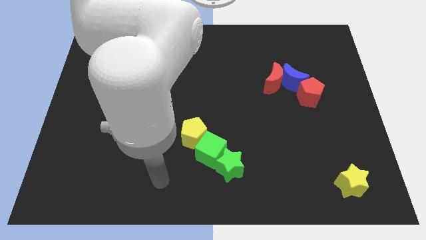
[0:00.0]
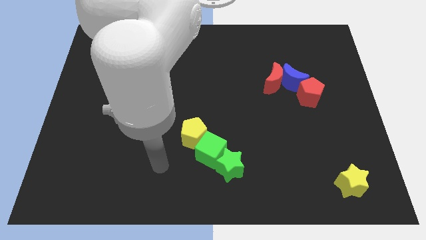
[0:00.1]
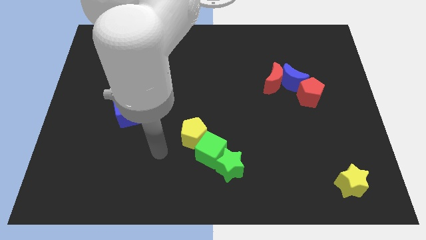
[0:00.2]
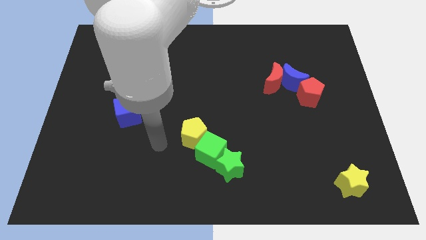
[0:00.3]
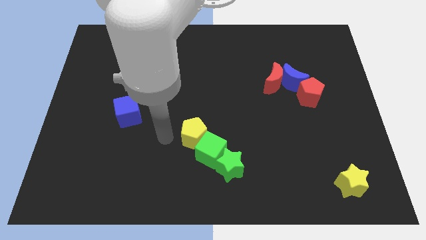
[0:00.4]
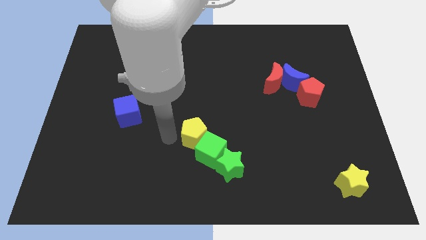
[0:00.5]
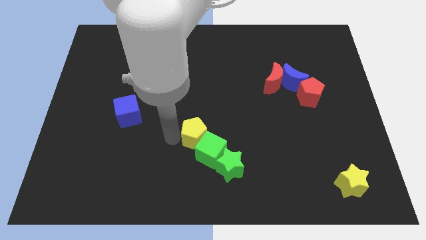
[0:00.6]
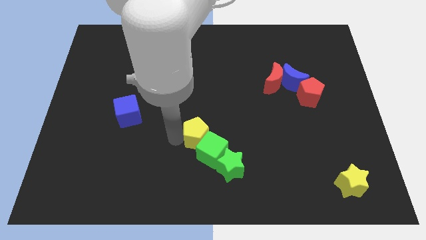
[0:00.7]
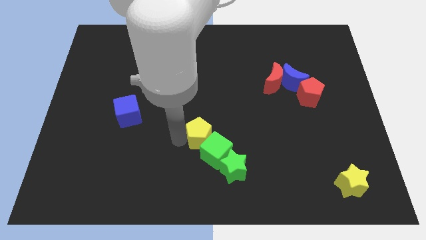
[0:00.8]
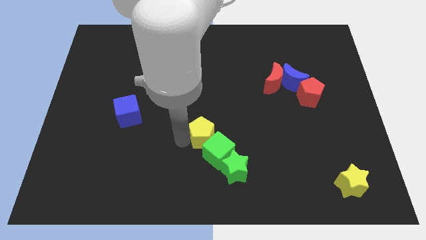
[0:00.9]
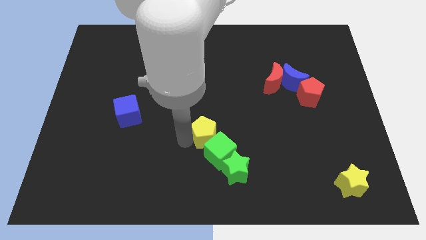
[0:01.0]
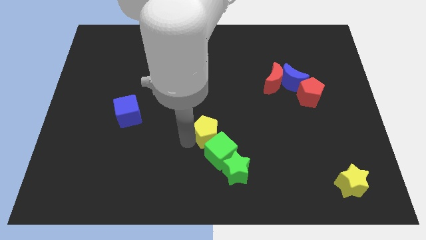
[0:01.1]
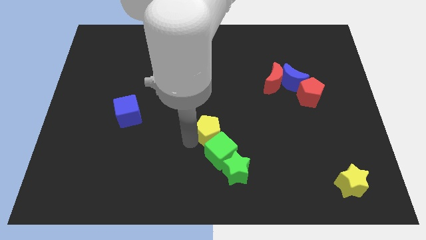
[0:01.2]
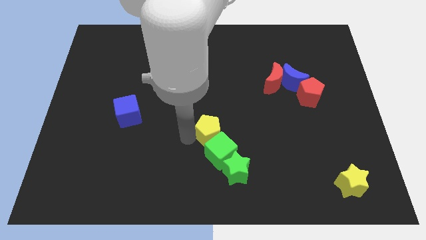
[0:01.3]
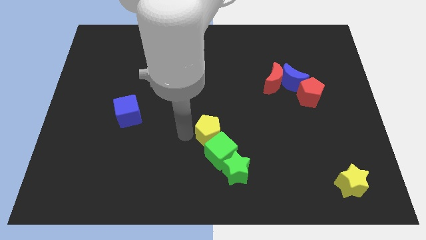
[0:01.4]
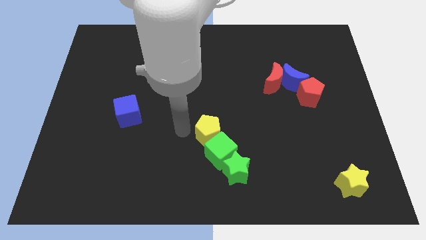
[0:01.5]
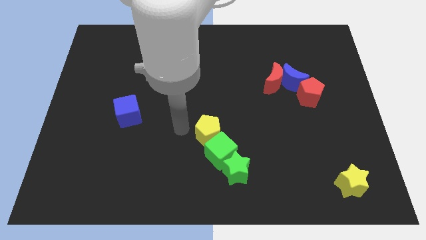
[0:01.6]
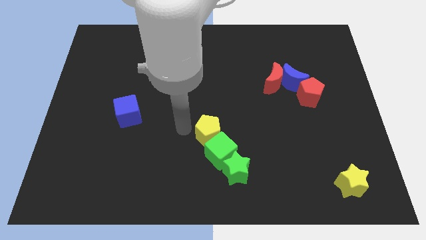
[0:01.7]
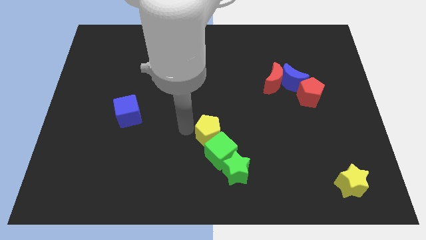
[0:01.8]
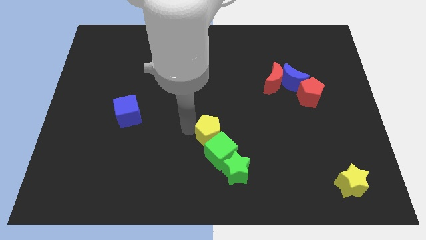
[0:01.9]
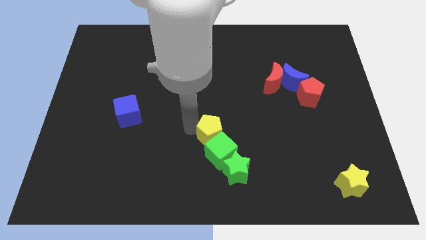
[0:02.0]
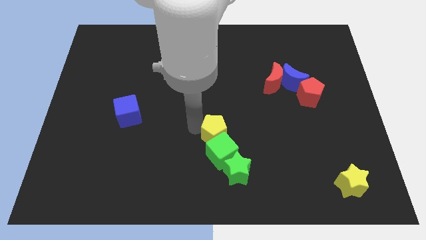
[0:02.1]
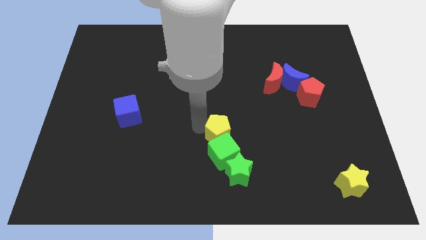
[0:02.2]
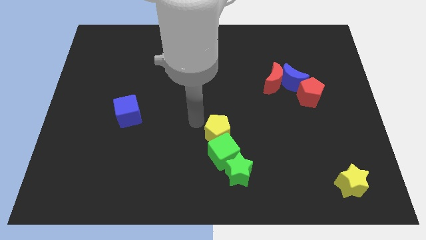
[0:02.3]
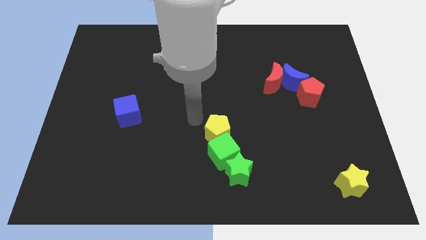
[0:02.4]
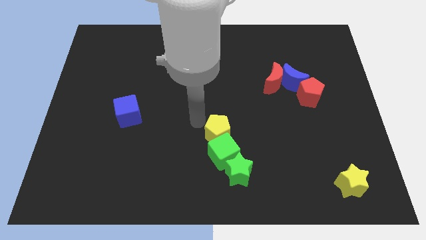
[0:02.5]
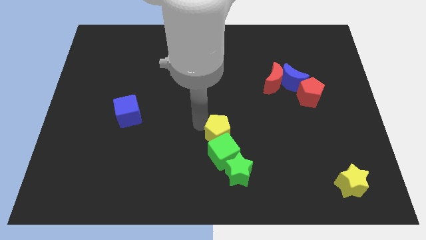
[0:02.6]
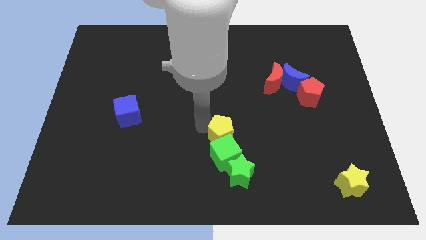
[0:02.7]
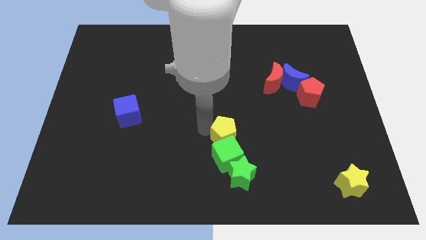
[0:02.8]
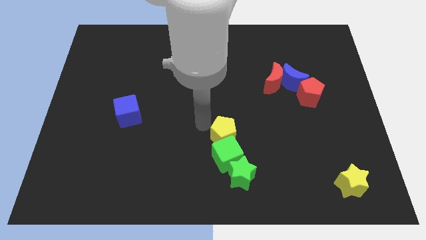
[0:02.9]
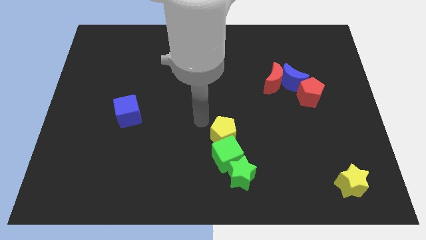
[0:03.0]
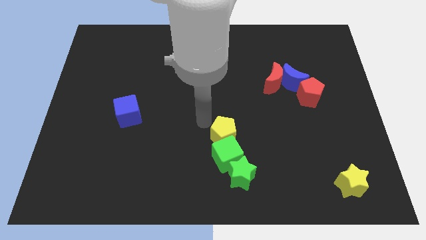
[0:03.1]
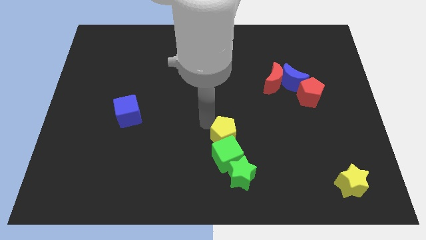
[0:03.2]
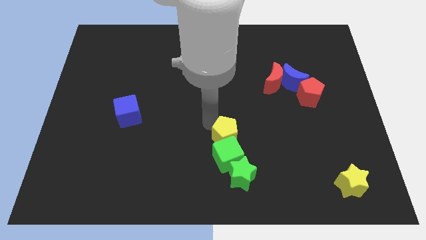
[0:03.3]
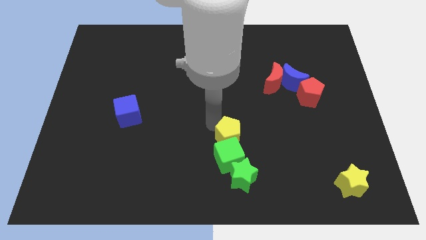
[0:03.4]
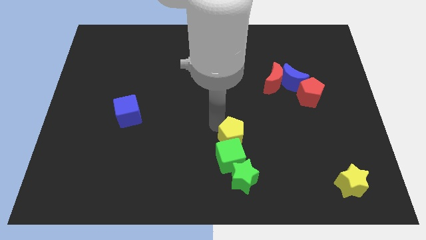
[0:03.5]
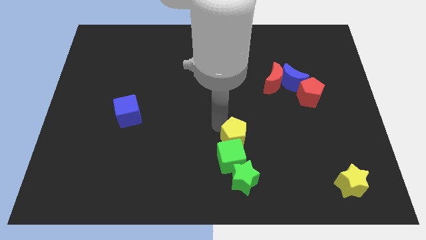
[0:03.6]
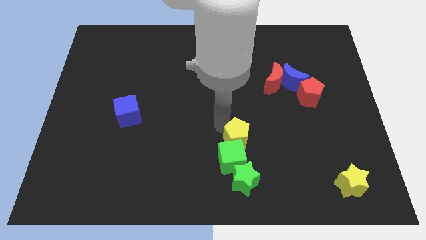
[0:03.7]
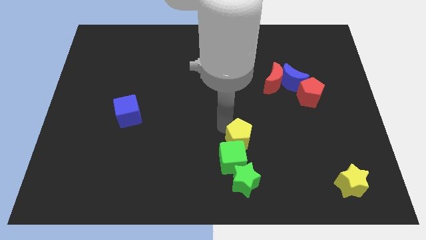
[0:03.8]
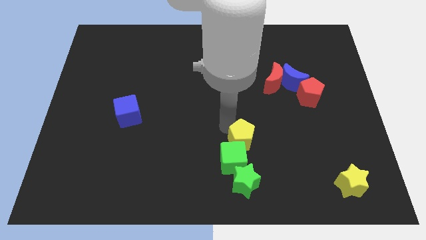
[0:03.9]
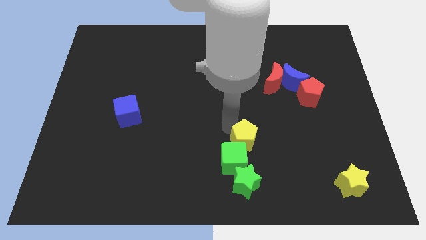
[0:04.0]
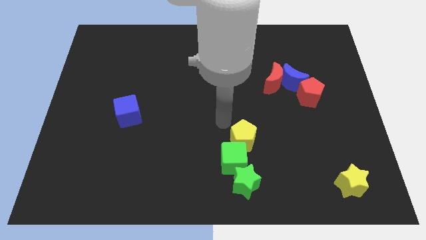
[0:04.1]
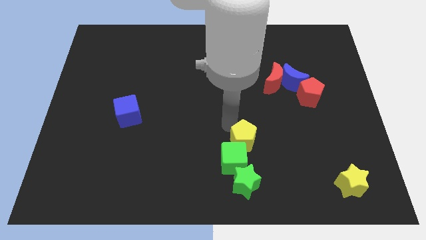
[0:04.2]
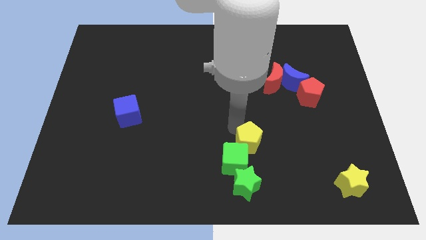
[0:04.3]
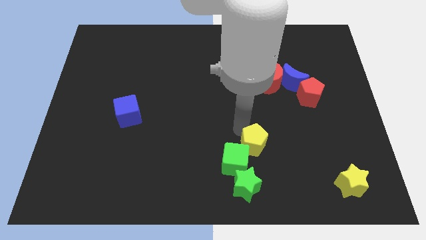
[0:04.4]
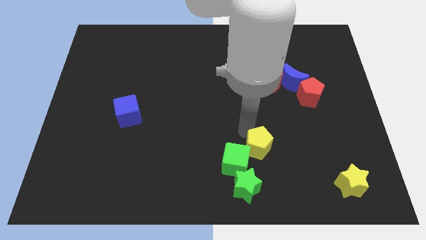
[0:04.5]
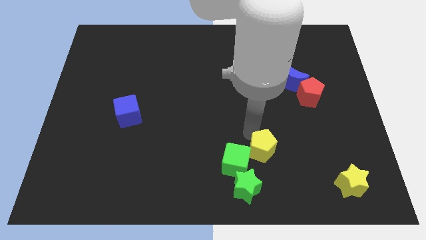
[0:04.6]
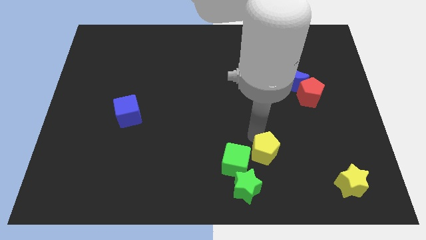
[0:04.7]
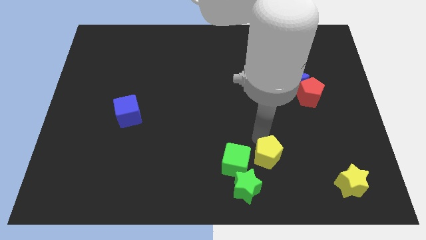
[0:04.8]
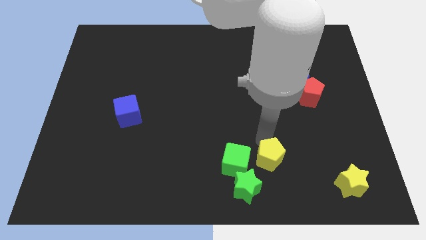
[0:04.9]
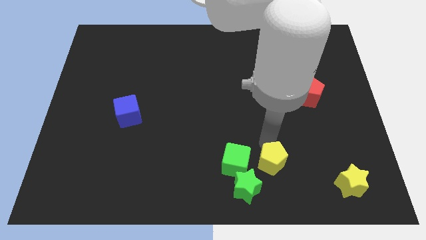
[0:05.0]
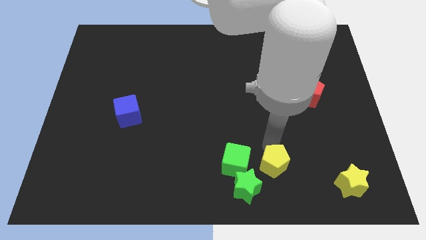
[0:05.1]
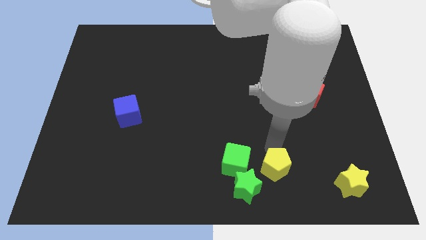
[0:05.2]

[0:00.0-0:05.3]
slide the yellow pentagon right of the green star

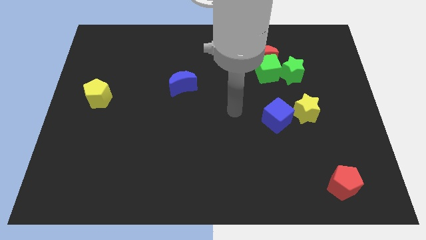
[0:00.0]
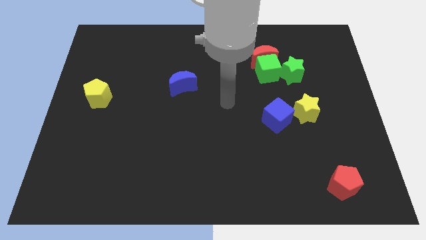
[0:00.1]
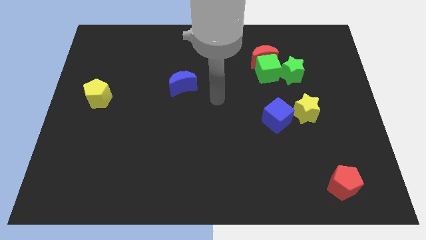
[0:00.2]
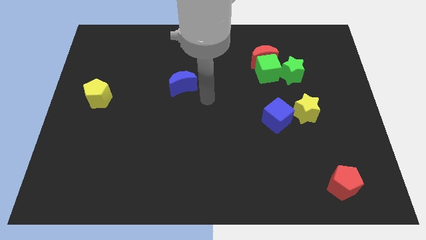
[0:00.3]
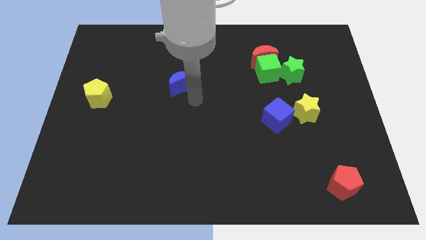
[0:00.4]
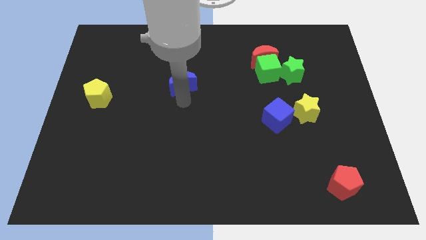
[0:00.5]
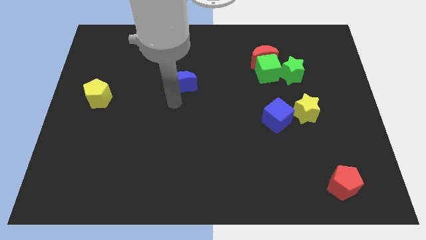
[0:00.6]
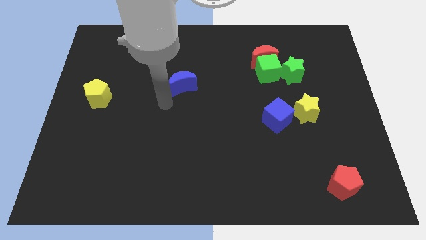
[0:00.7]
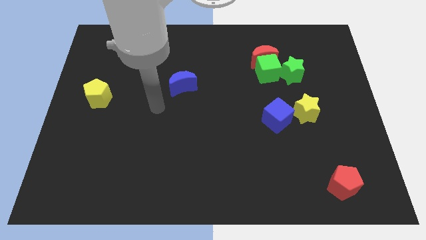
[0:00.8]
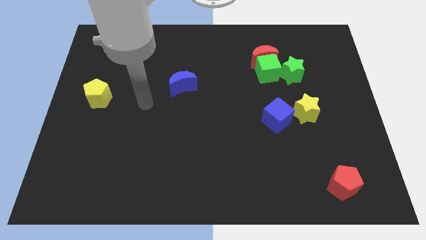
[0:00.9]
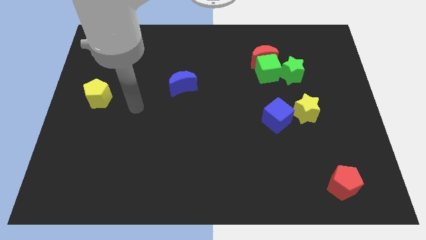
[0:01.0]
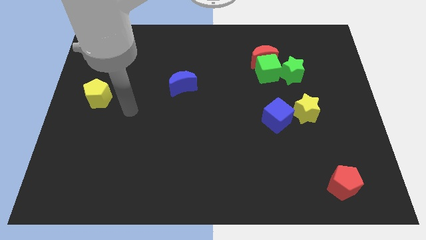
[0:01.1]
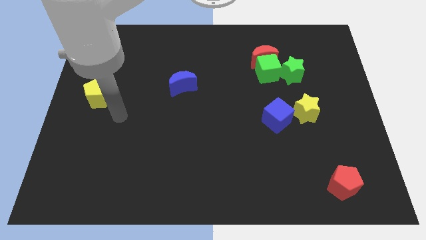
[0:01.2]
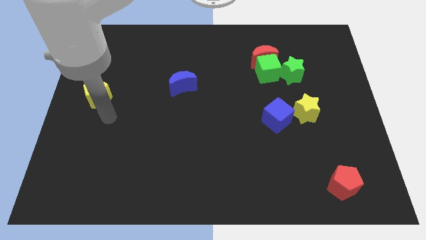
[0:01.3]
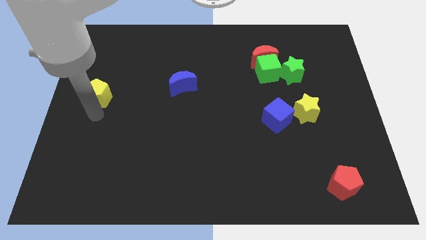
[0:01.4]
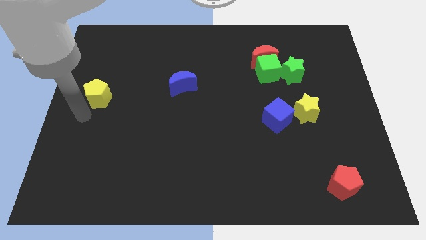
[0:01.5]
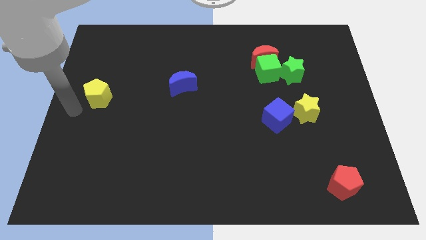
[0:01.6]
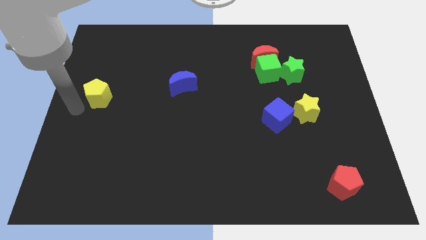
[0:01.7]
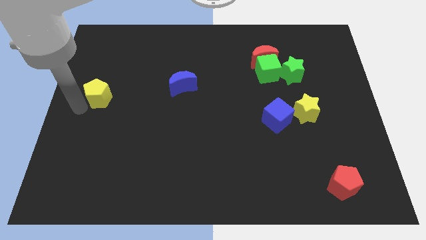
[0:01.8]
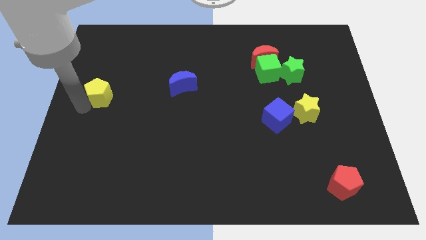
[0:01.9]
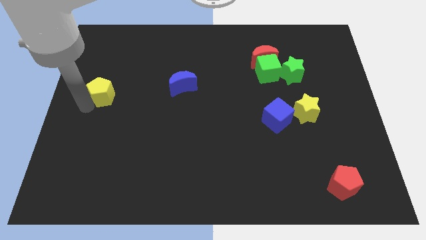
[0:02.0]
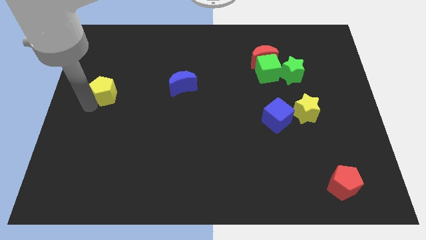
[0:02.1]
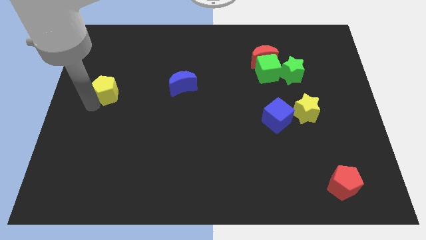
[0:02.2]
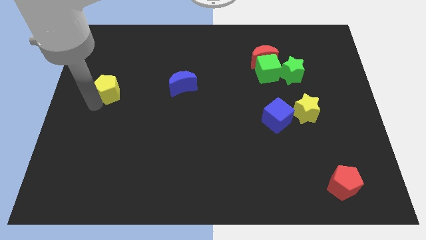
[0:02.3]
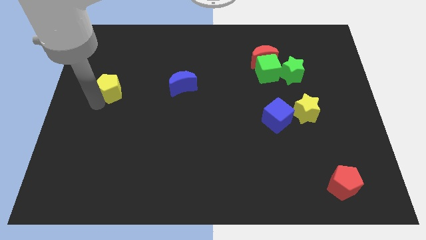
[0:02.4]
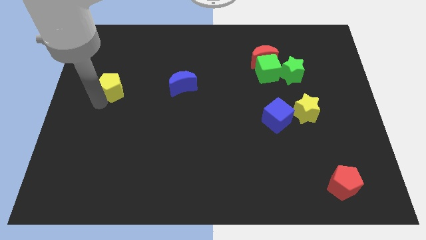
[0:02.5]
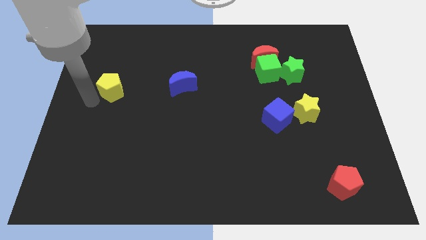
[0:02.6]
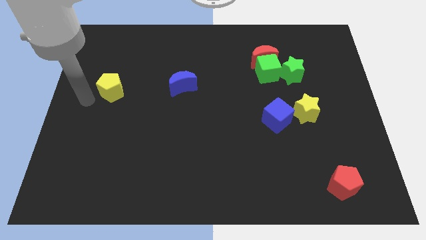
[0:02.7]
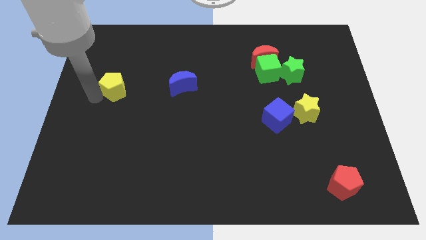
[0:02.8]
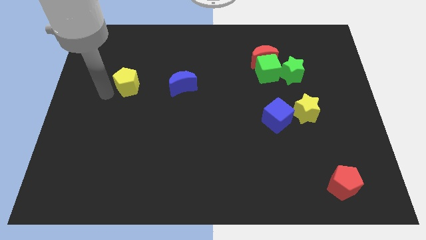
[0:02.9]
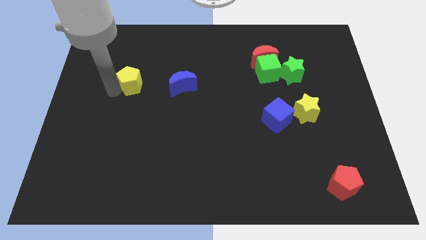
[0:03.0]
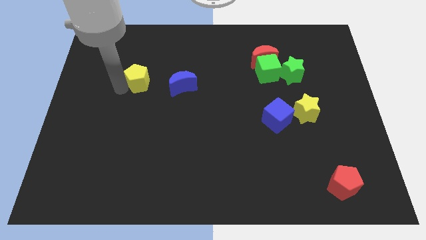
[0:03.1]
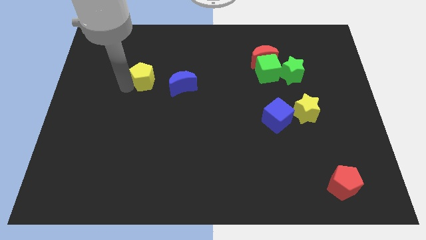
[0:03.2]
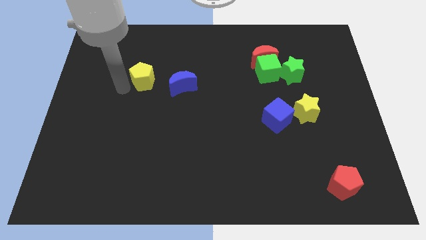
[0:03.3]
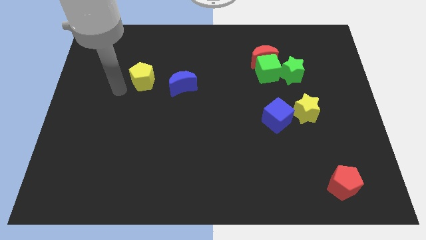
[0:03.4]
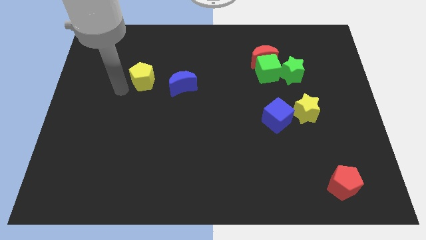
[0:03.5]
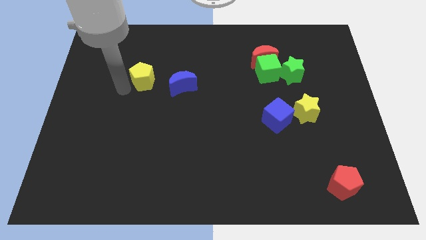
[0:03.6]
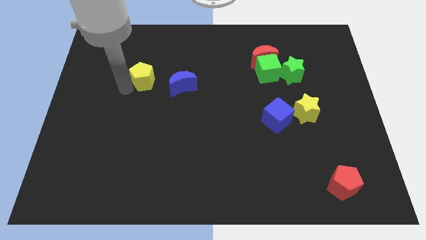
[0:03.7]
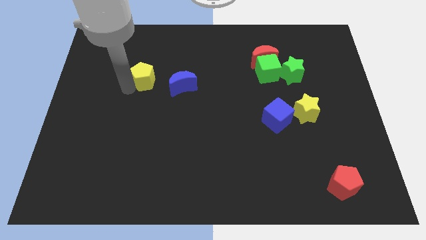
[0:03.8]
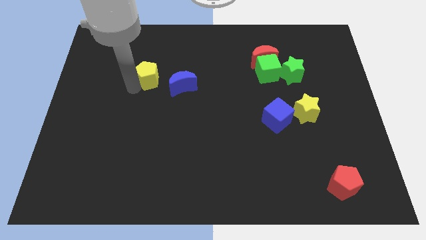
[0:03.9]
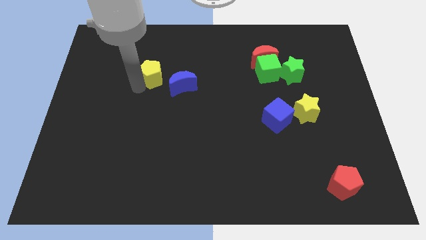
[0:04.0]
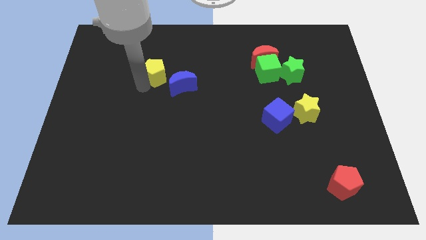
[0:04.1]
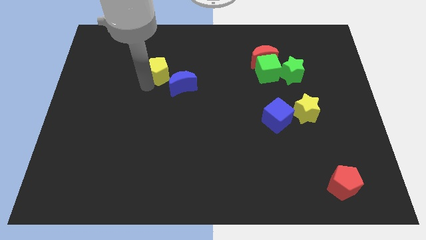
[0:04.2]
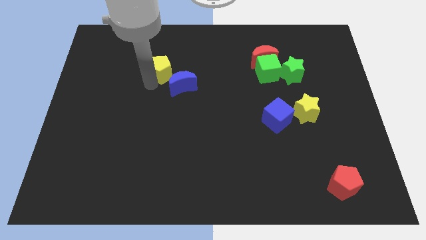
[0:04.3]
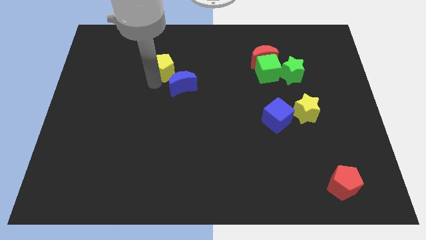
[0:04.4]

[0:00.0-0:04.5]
push the yellow pentagon to the top side of the blue moon
